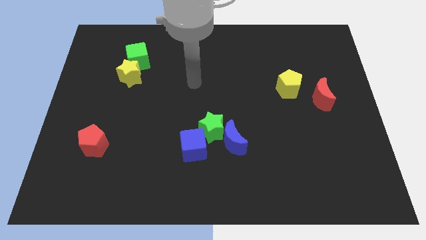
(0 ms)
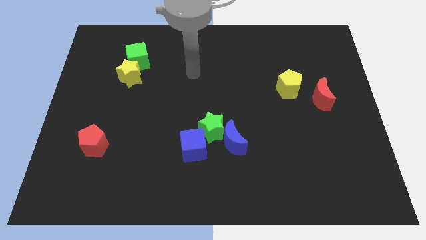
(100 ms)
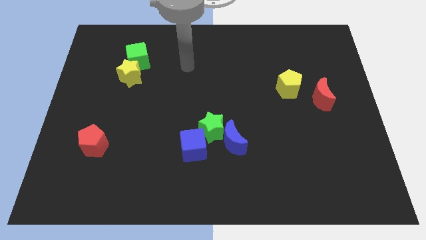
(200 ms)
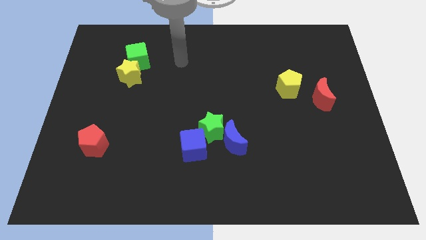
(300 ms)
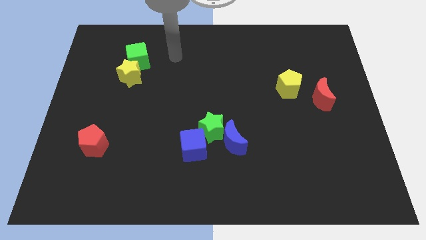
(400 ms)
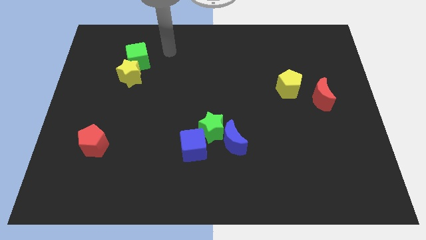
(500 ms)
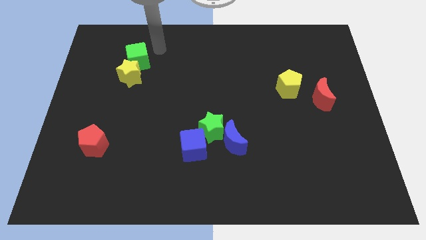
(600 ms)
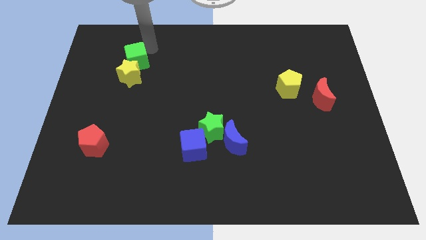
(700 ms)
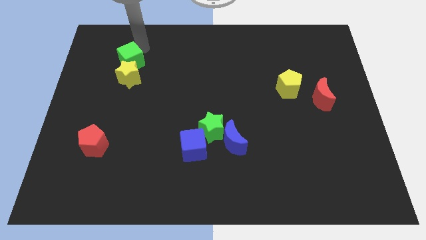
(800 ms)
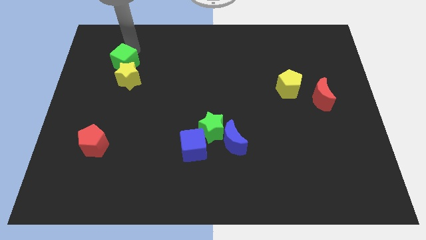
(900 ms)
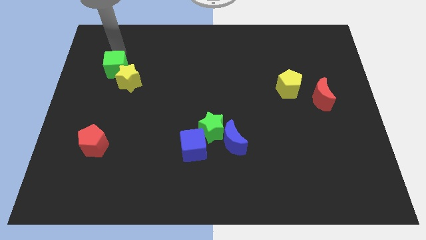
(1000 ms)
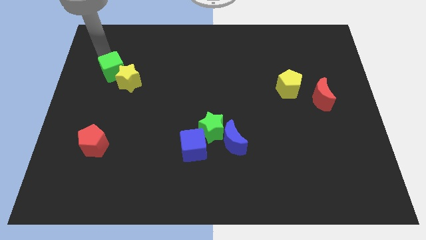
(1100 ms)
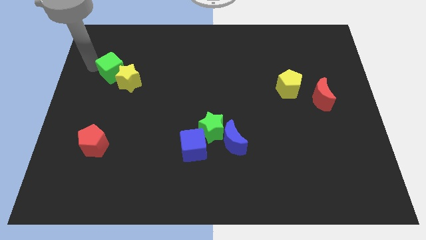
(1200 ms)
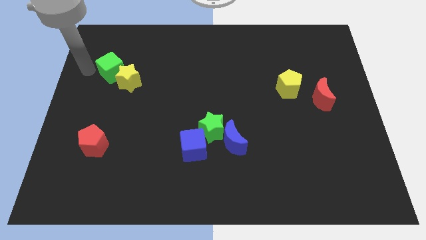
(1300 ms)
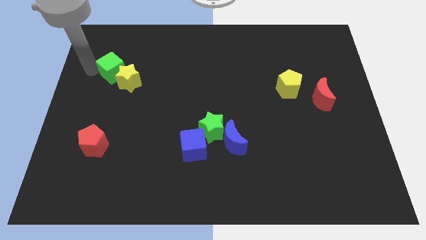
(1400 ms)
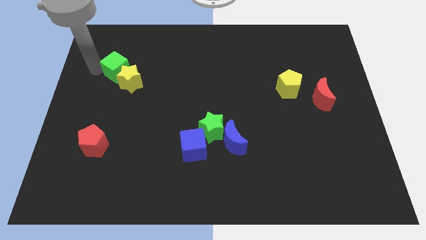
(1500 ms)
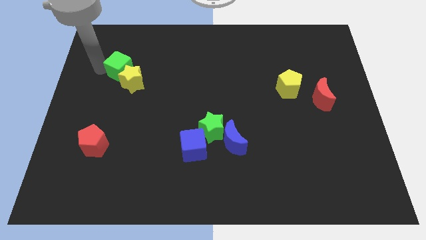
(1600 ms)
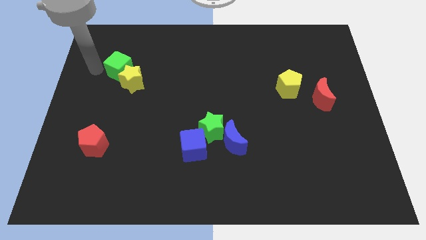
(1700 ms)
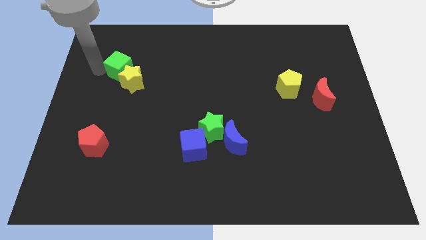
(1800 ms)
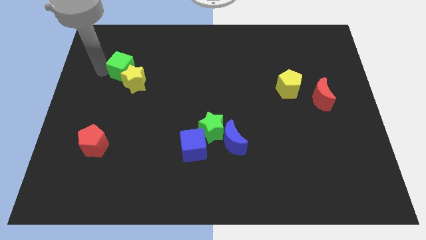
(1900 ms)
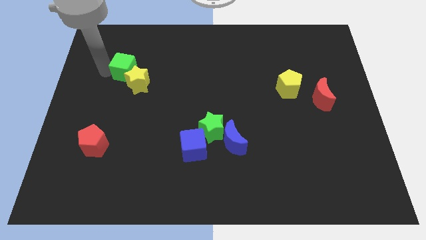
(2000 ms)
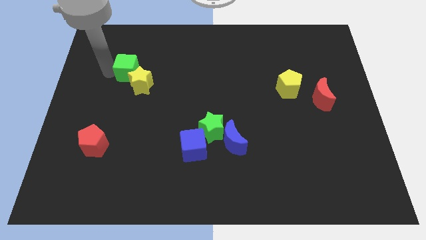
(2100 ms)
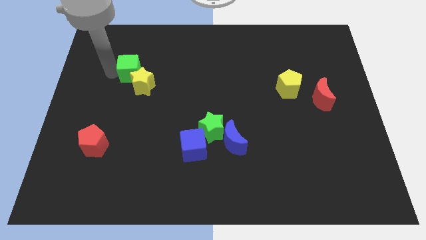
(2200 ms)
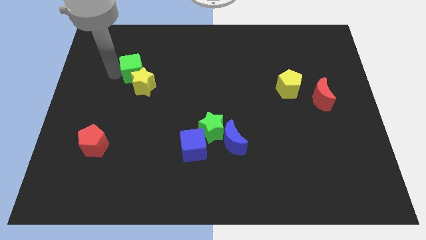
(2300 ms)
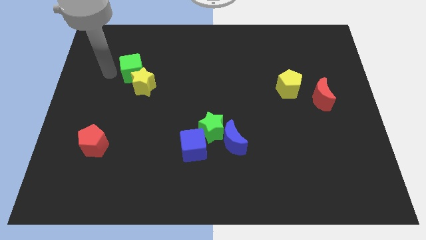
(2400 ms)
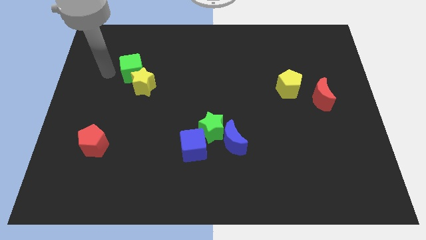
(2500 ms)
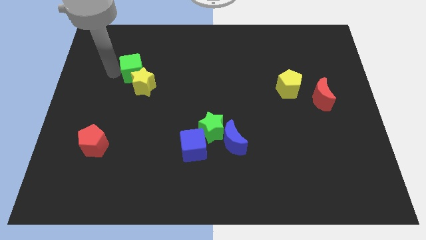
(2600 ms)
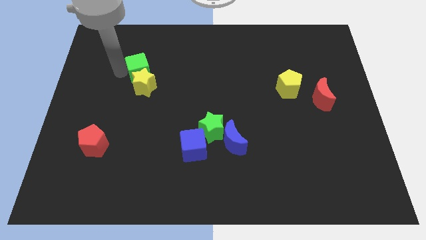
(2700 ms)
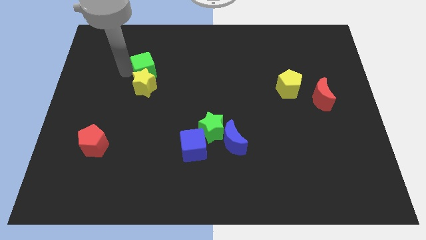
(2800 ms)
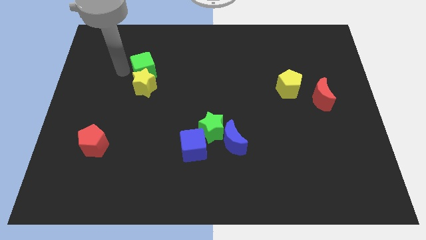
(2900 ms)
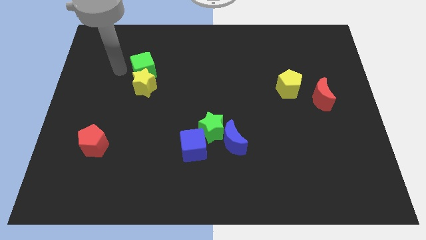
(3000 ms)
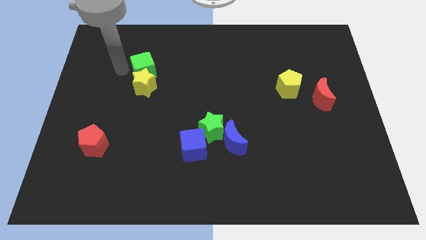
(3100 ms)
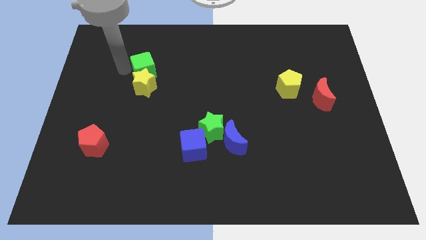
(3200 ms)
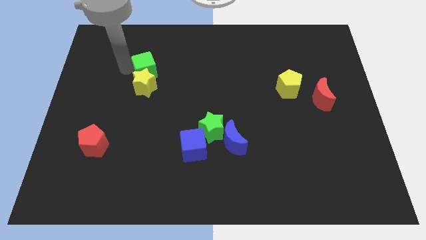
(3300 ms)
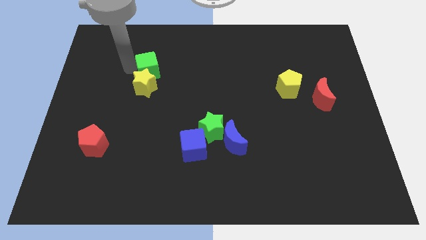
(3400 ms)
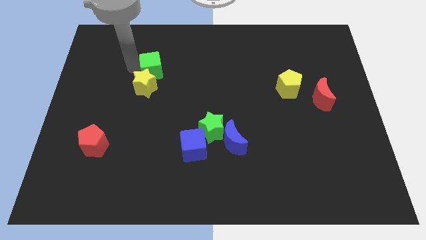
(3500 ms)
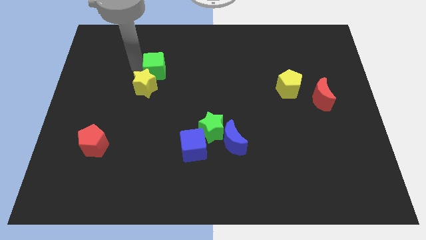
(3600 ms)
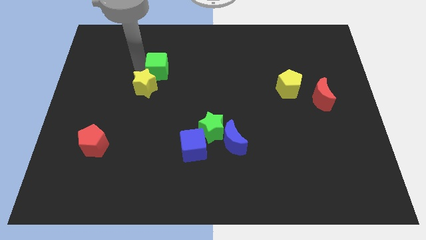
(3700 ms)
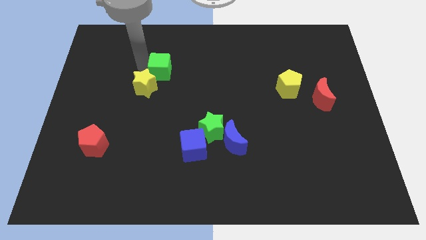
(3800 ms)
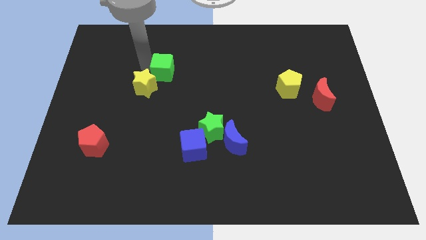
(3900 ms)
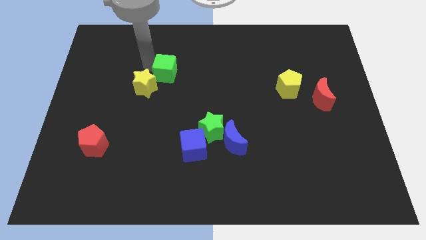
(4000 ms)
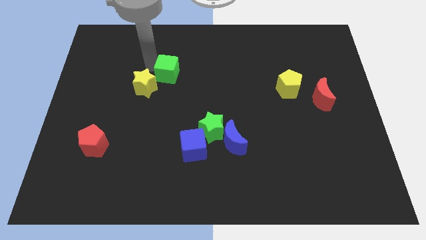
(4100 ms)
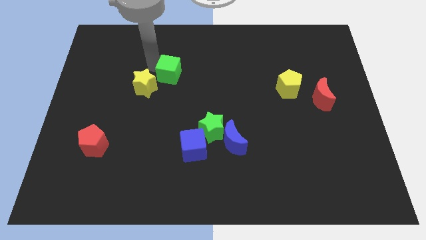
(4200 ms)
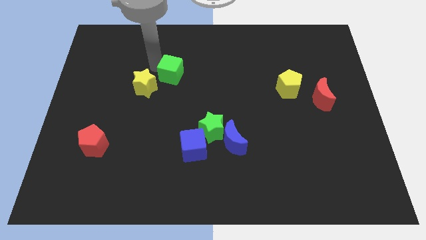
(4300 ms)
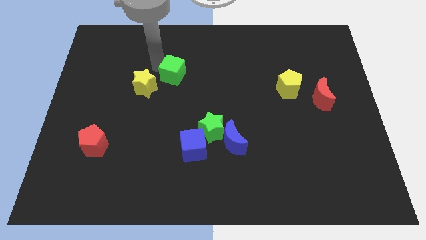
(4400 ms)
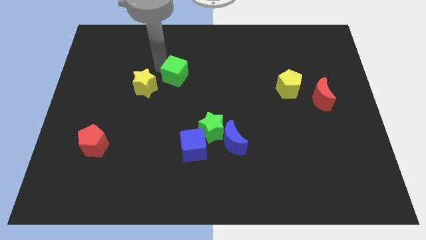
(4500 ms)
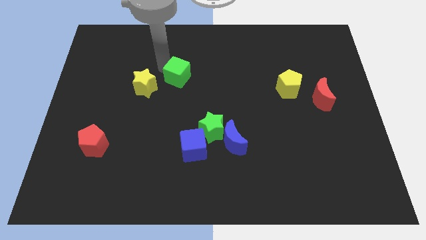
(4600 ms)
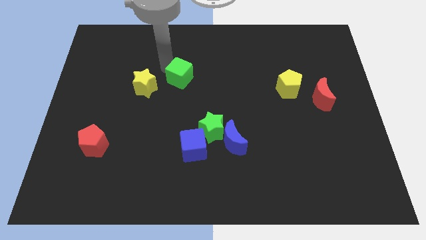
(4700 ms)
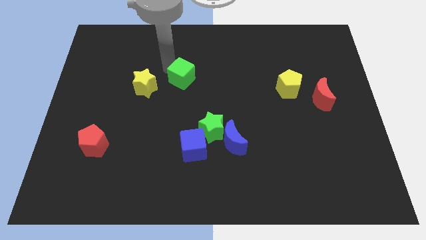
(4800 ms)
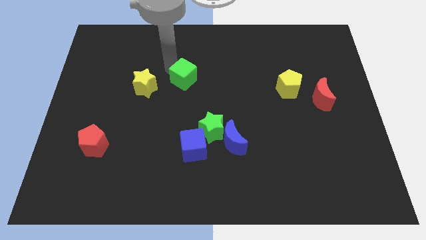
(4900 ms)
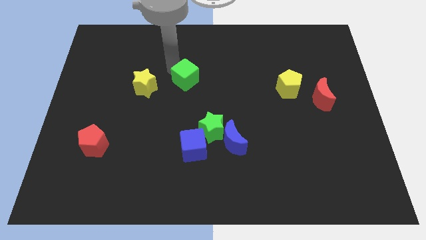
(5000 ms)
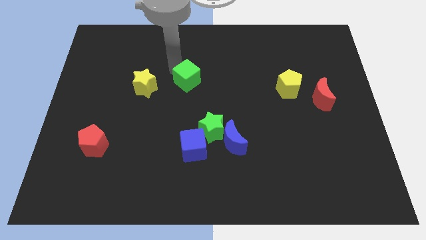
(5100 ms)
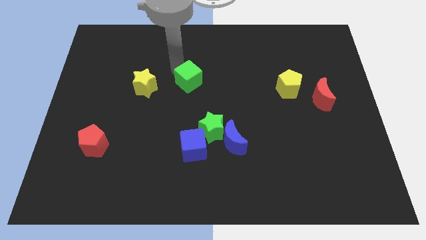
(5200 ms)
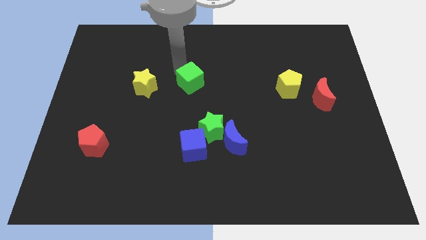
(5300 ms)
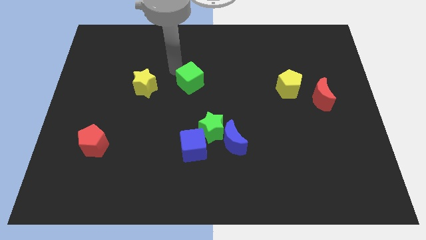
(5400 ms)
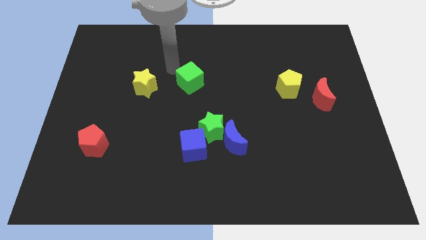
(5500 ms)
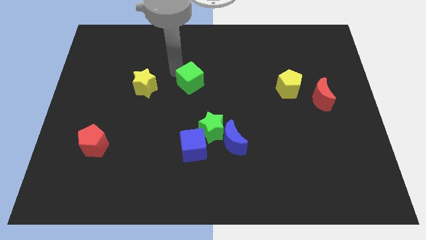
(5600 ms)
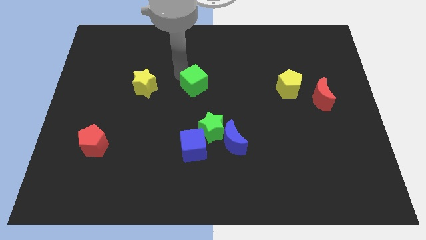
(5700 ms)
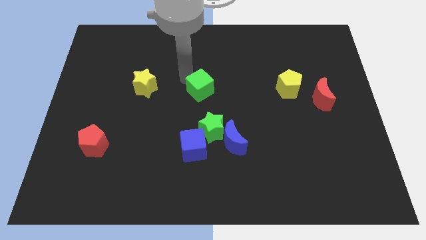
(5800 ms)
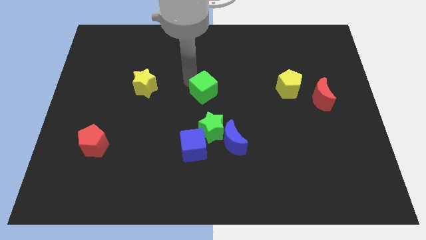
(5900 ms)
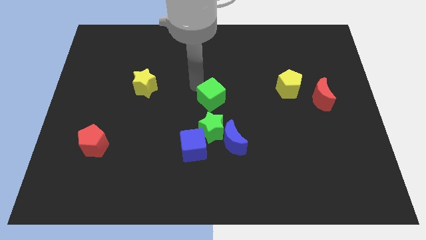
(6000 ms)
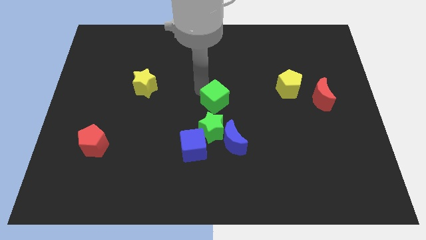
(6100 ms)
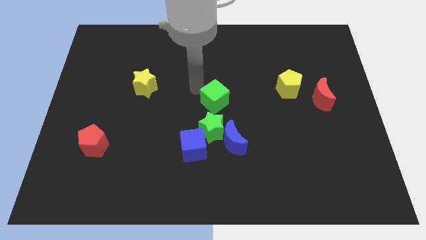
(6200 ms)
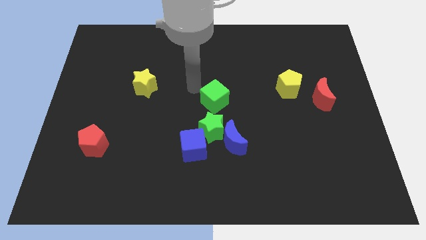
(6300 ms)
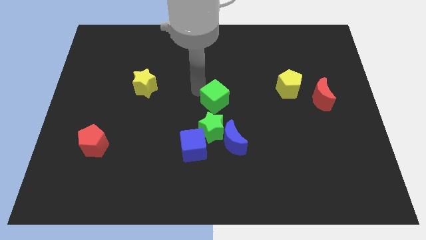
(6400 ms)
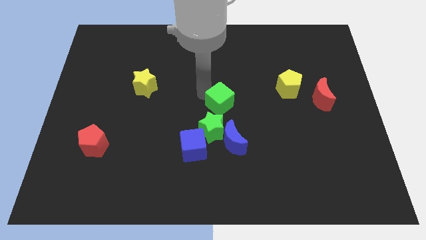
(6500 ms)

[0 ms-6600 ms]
put the green cube diagonally up and to the right of the green star
